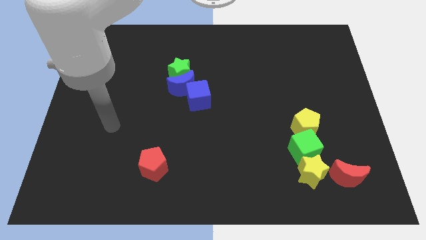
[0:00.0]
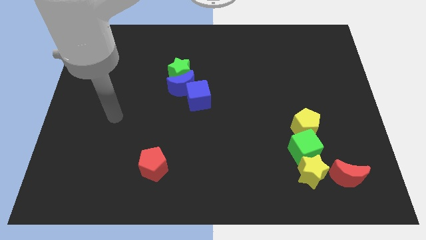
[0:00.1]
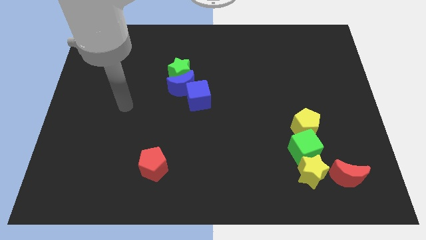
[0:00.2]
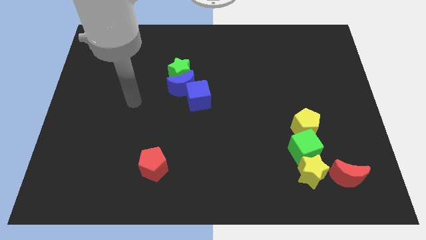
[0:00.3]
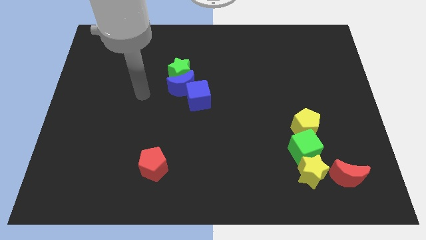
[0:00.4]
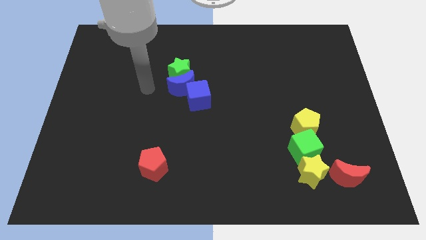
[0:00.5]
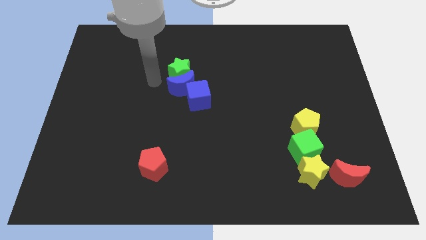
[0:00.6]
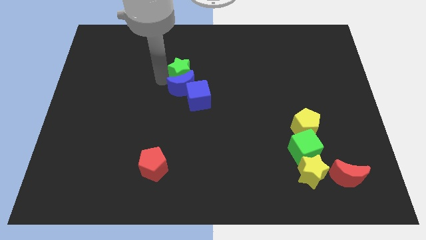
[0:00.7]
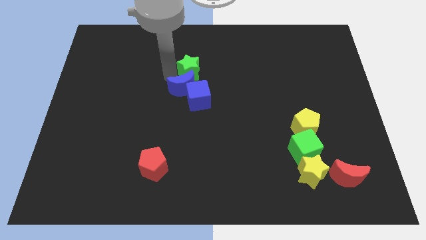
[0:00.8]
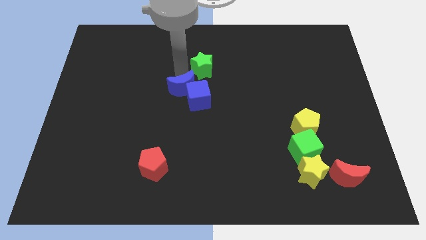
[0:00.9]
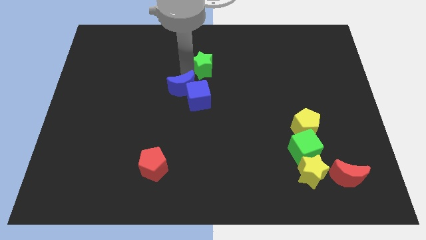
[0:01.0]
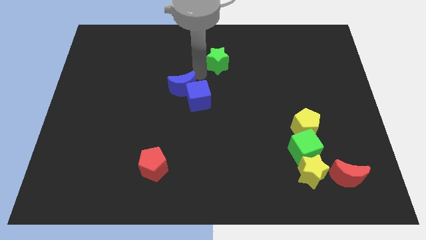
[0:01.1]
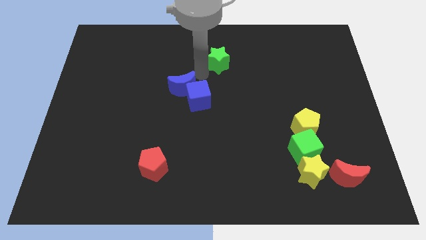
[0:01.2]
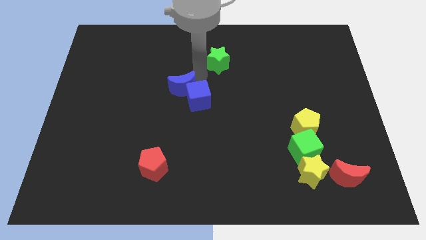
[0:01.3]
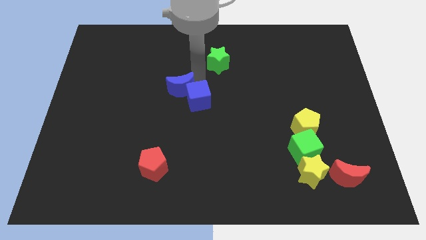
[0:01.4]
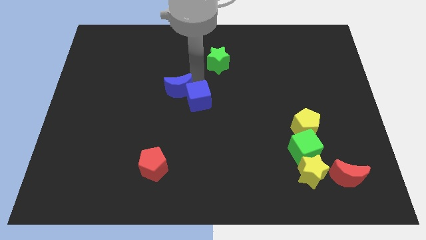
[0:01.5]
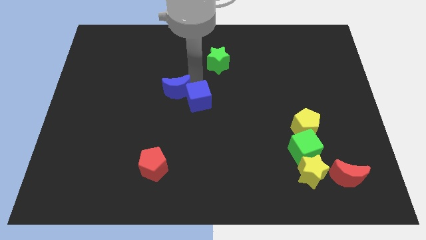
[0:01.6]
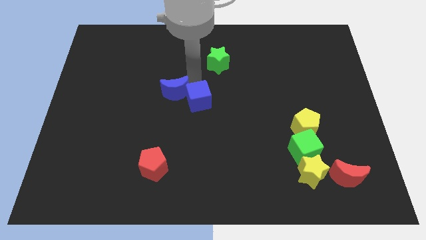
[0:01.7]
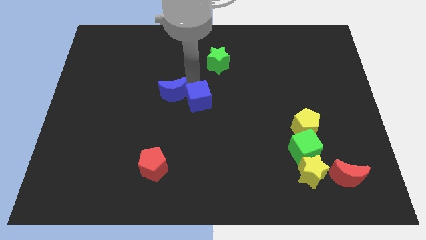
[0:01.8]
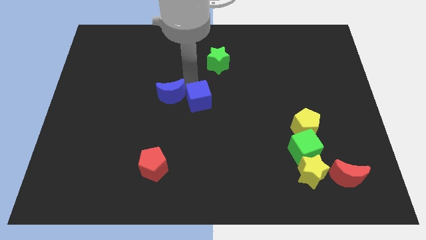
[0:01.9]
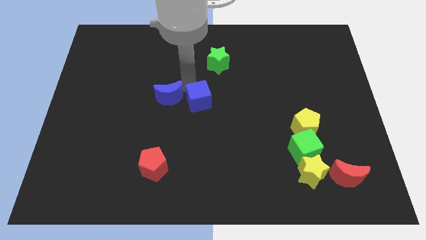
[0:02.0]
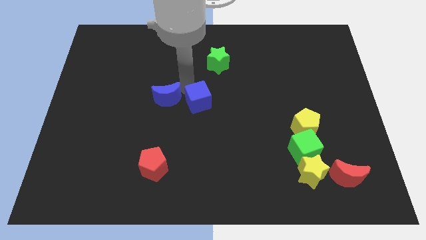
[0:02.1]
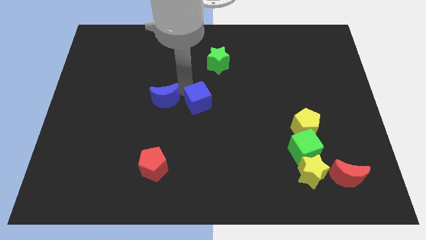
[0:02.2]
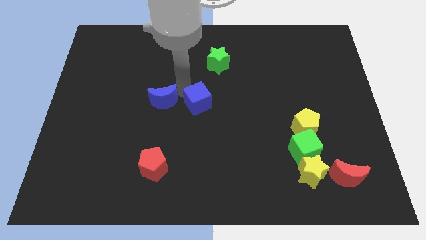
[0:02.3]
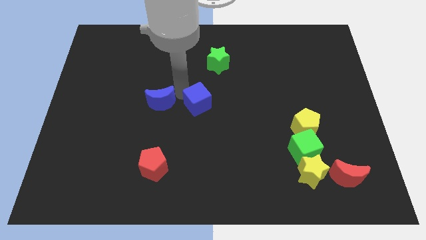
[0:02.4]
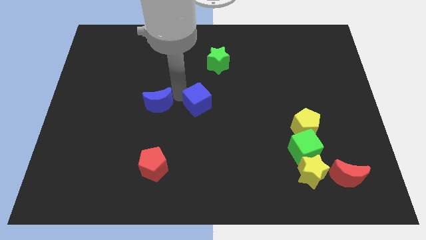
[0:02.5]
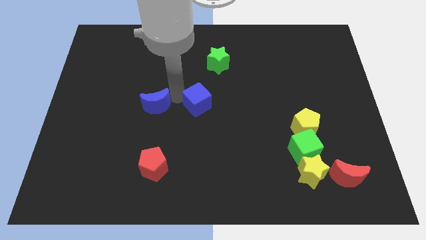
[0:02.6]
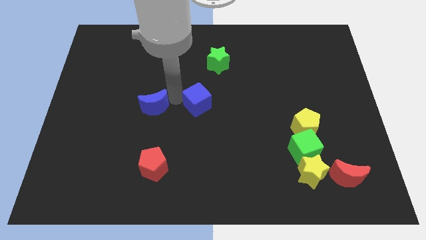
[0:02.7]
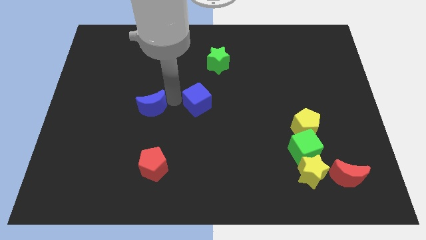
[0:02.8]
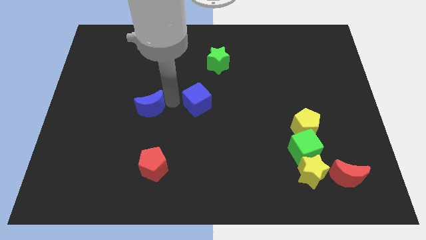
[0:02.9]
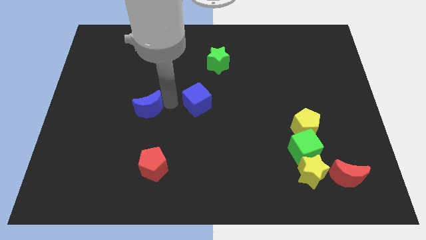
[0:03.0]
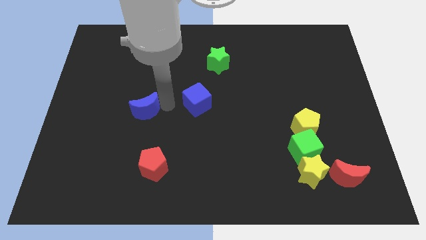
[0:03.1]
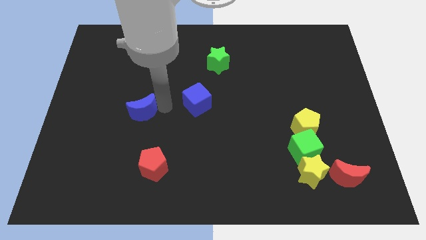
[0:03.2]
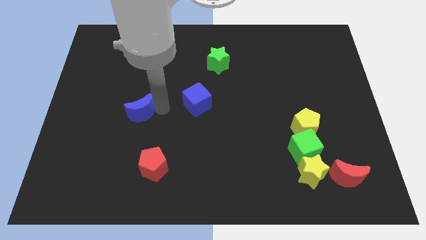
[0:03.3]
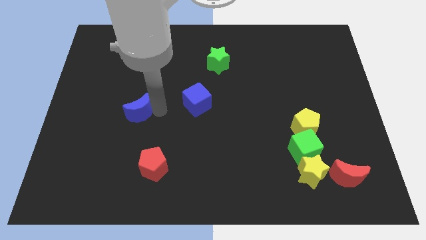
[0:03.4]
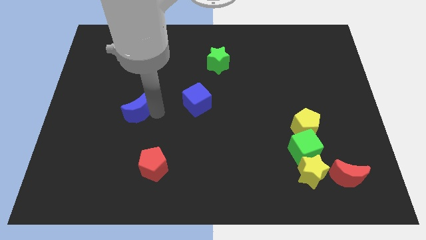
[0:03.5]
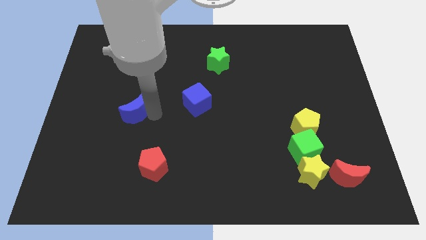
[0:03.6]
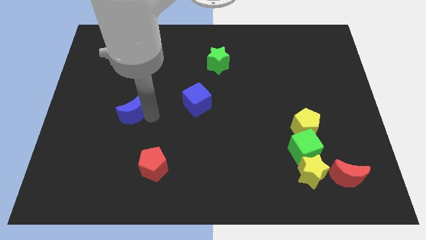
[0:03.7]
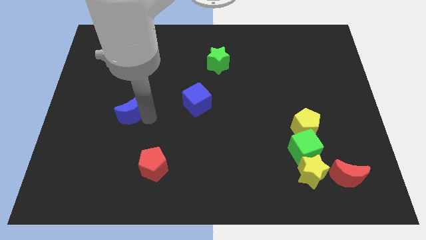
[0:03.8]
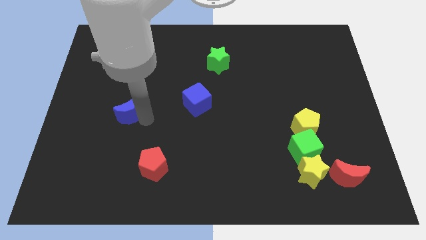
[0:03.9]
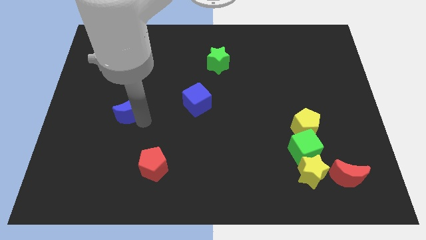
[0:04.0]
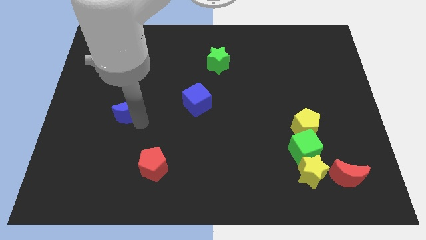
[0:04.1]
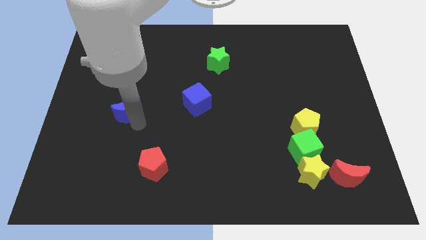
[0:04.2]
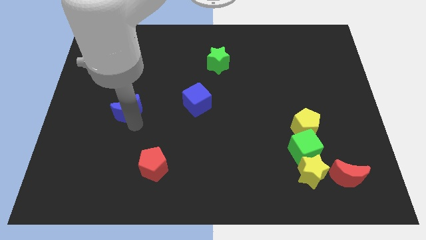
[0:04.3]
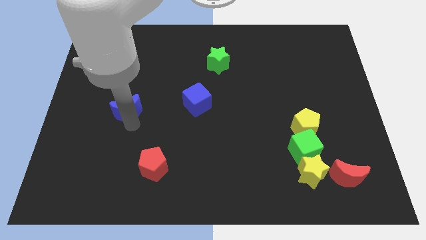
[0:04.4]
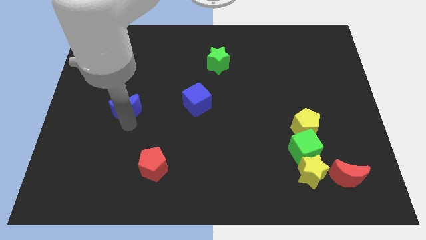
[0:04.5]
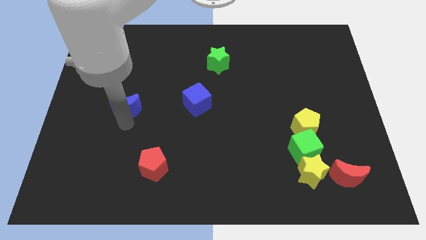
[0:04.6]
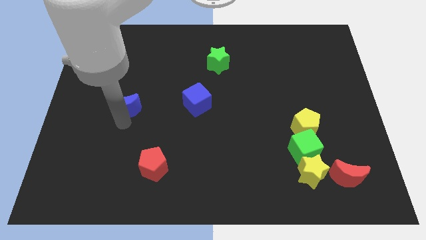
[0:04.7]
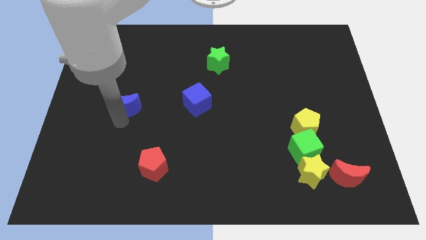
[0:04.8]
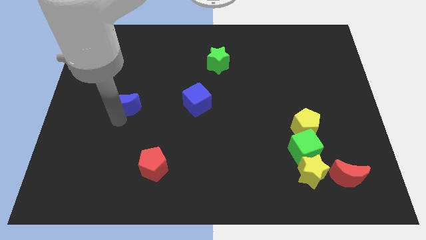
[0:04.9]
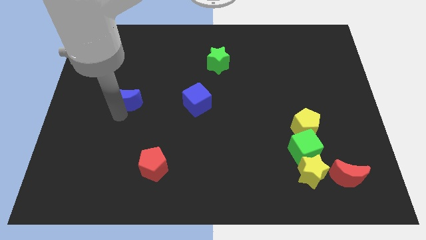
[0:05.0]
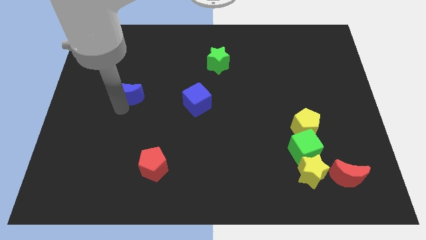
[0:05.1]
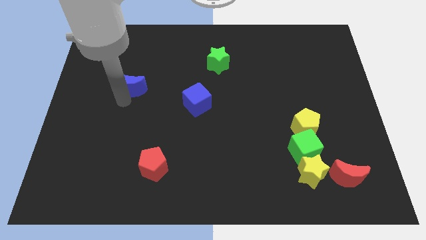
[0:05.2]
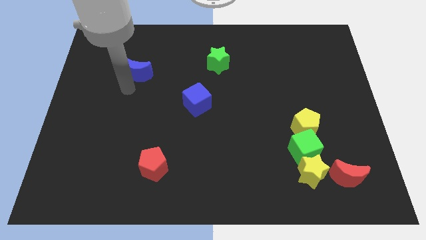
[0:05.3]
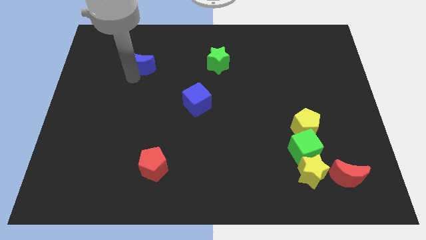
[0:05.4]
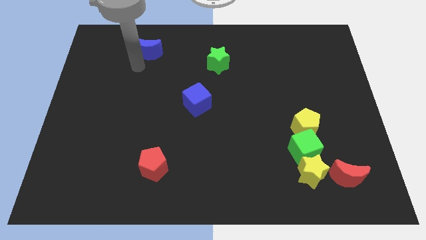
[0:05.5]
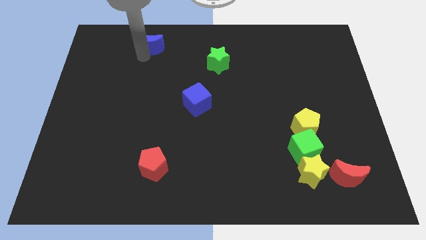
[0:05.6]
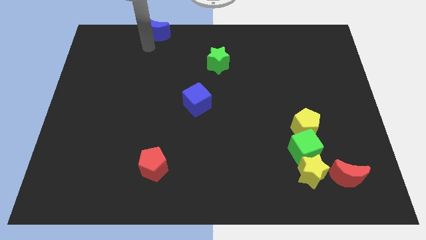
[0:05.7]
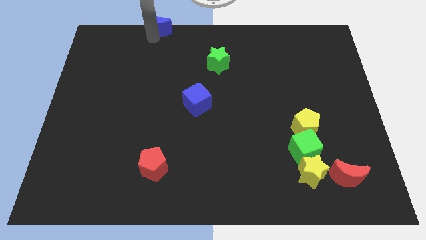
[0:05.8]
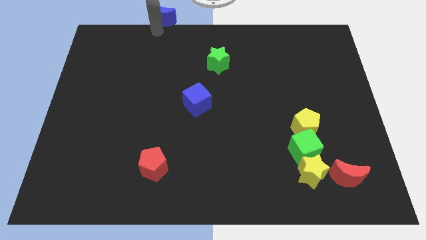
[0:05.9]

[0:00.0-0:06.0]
slide the blue moon to the top side

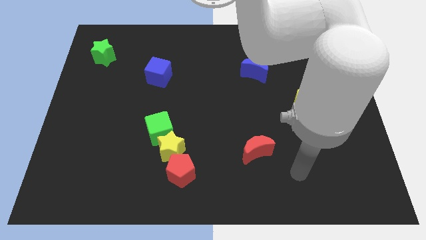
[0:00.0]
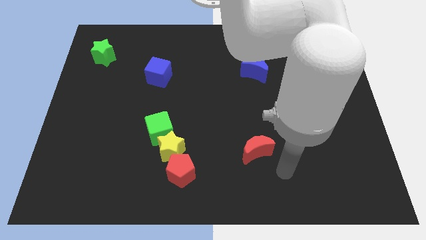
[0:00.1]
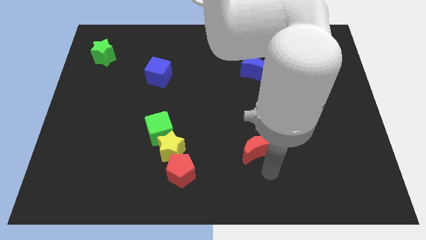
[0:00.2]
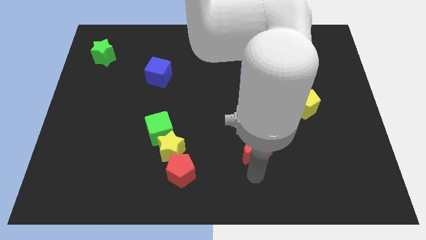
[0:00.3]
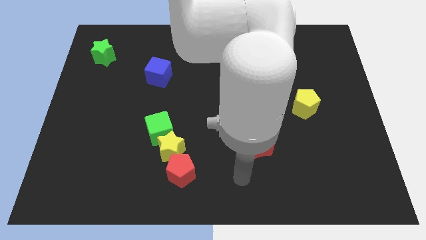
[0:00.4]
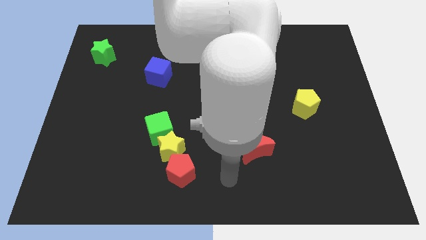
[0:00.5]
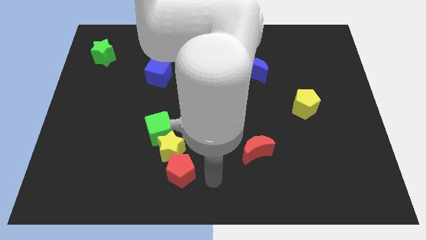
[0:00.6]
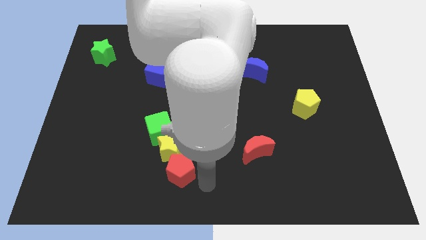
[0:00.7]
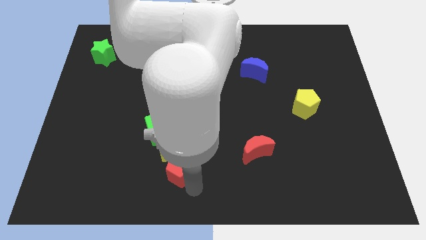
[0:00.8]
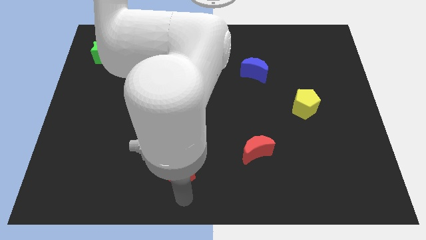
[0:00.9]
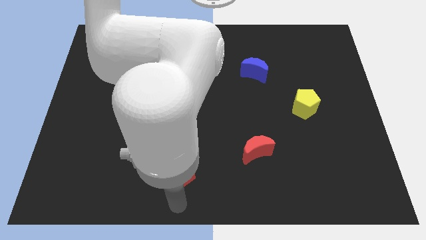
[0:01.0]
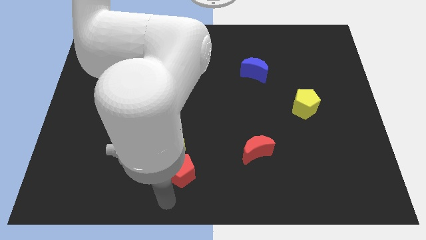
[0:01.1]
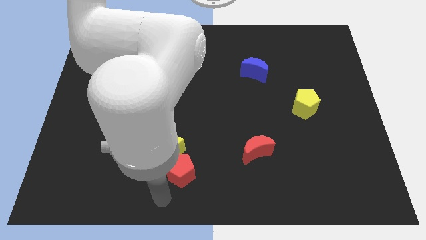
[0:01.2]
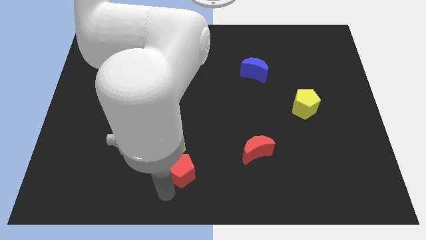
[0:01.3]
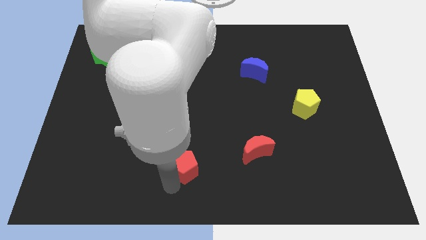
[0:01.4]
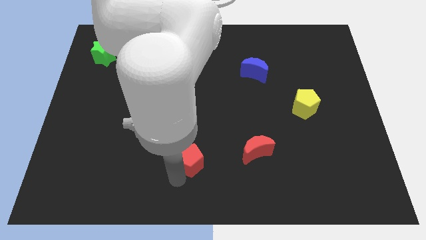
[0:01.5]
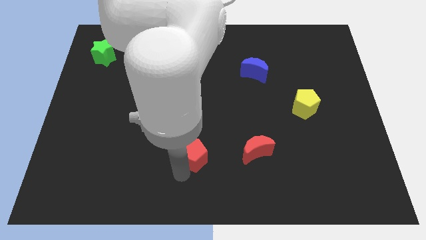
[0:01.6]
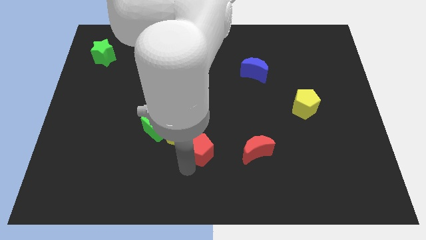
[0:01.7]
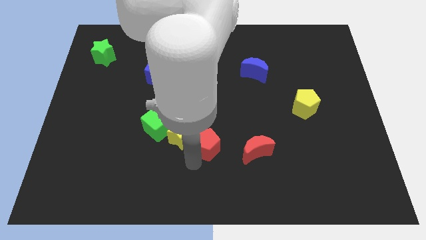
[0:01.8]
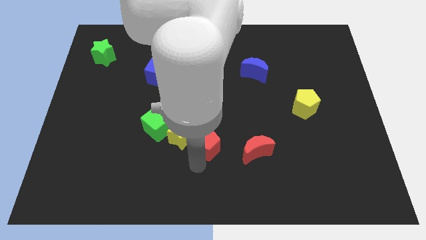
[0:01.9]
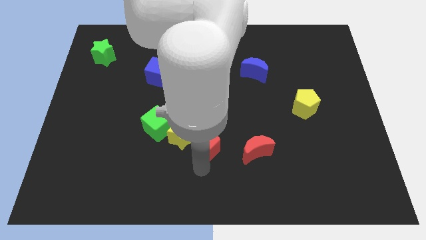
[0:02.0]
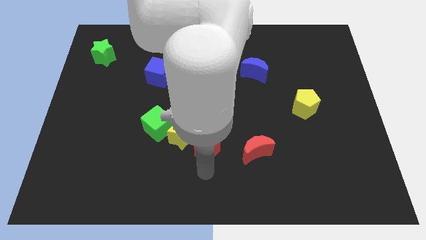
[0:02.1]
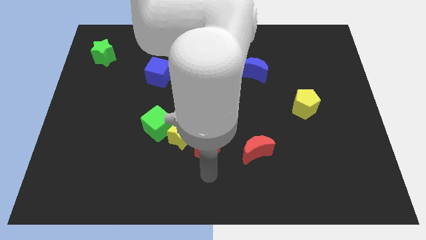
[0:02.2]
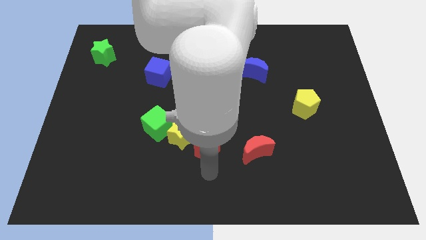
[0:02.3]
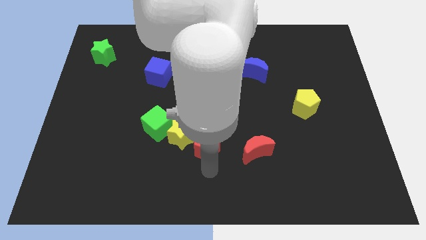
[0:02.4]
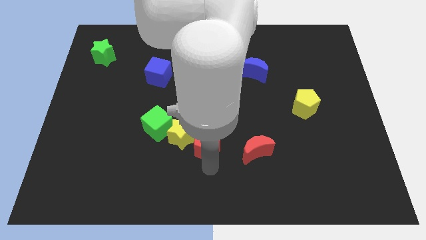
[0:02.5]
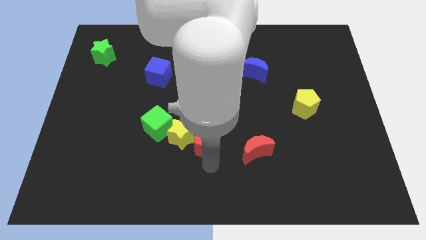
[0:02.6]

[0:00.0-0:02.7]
move the red pentagon to the middle
